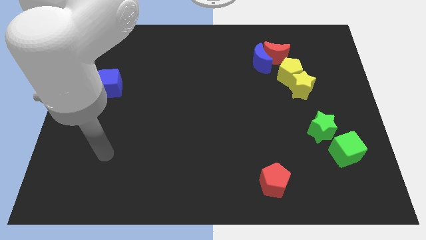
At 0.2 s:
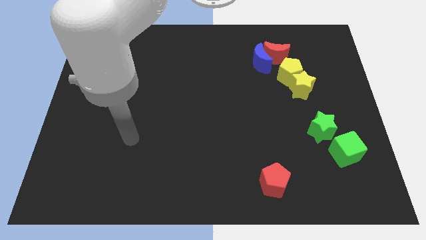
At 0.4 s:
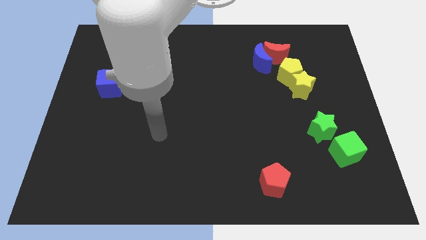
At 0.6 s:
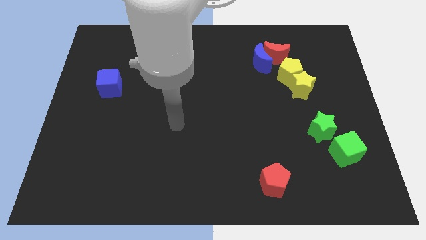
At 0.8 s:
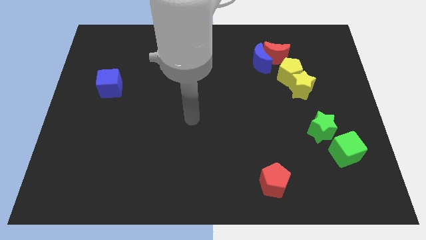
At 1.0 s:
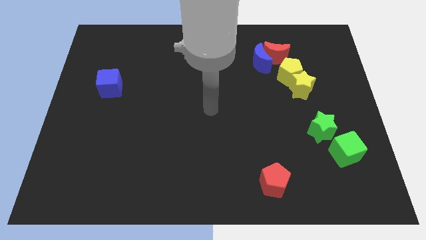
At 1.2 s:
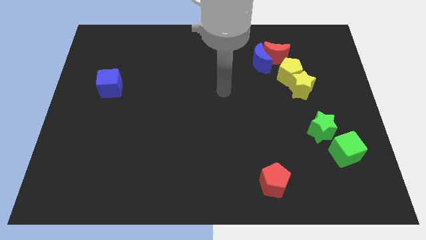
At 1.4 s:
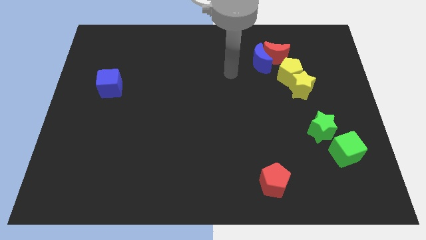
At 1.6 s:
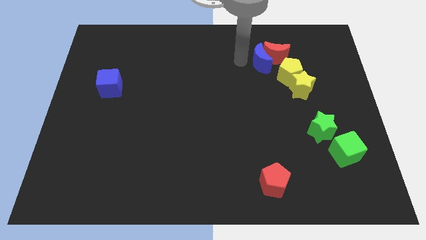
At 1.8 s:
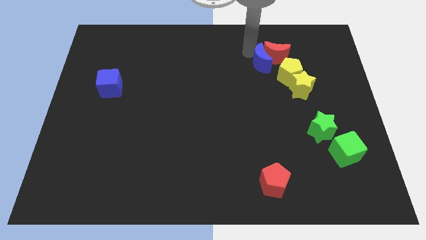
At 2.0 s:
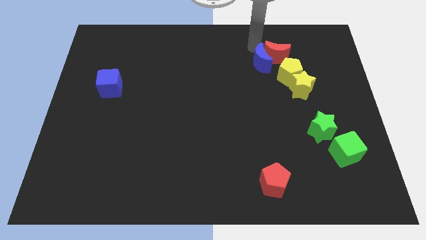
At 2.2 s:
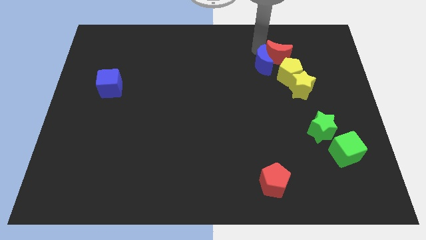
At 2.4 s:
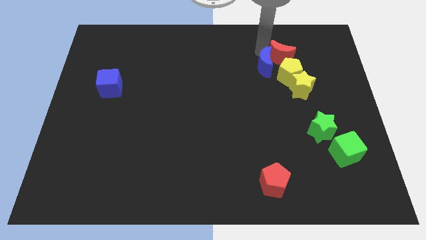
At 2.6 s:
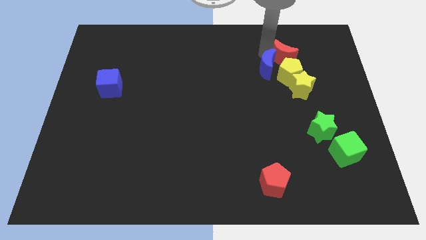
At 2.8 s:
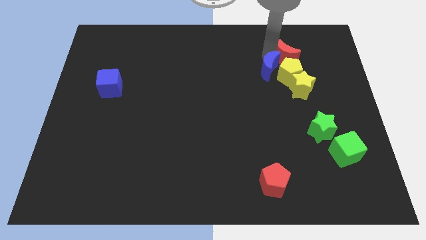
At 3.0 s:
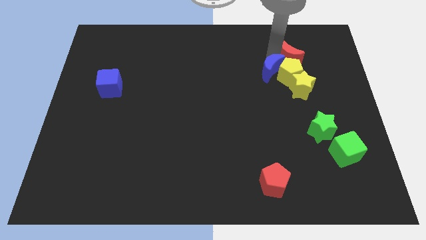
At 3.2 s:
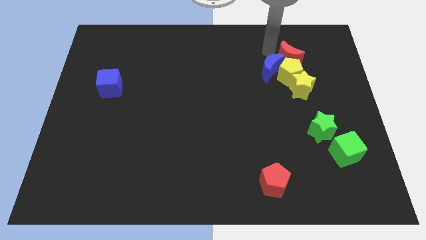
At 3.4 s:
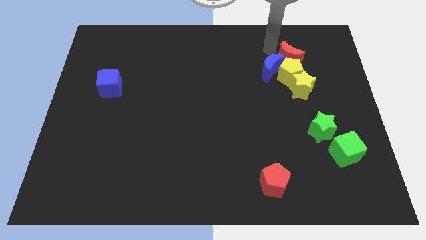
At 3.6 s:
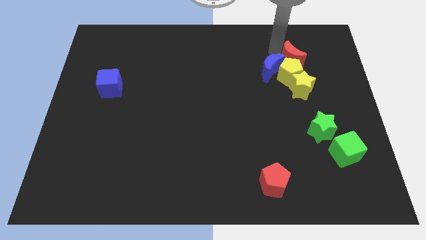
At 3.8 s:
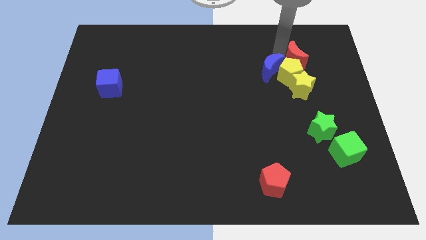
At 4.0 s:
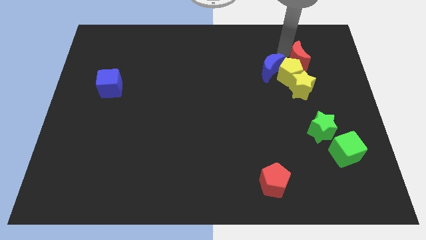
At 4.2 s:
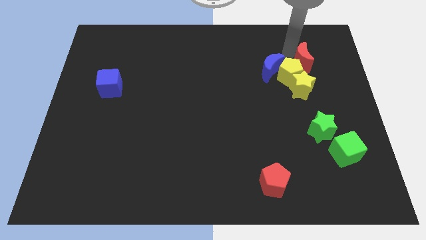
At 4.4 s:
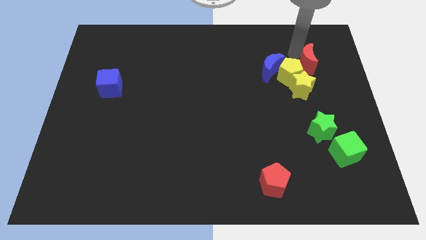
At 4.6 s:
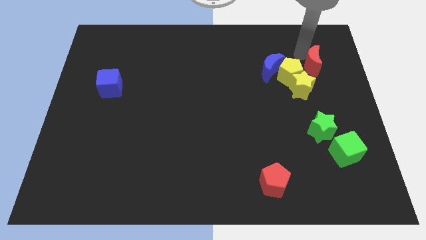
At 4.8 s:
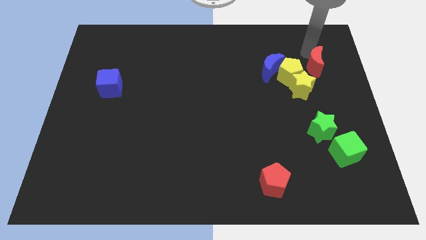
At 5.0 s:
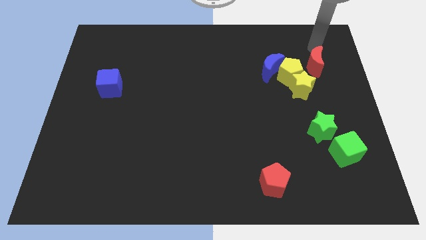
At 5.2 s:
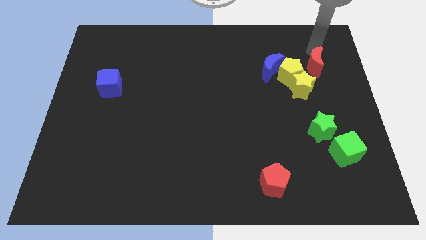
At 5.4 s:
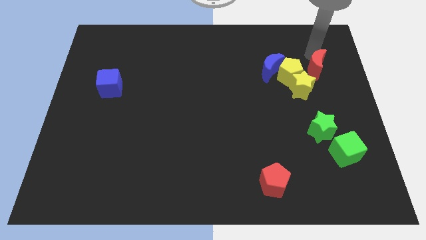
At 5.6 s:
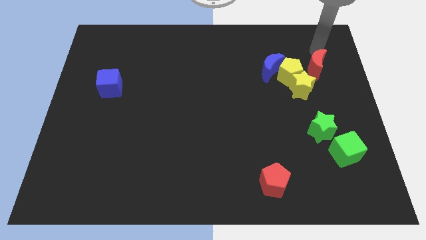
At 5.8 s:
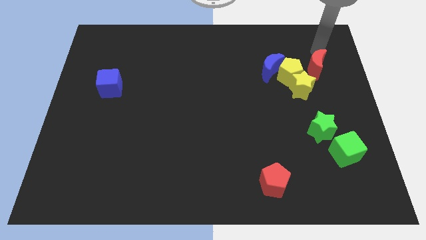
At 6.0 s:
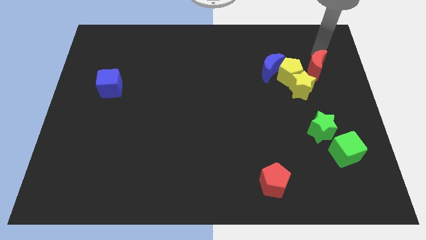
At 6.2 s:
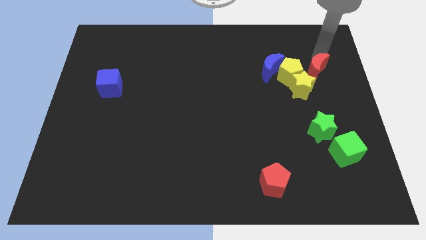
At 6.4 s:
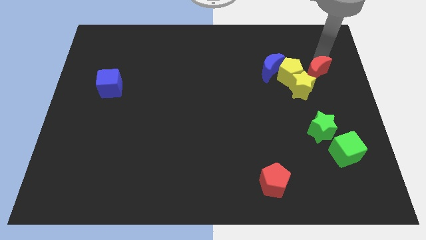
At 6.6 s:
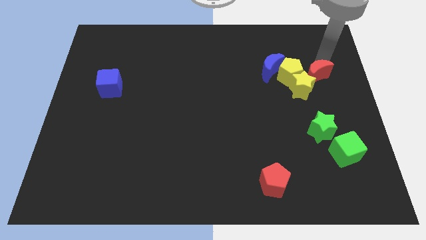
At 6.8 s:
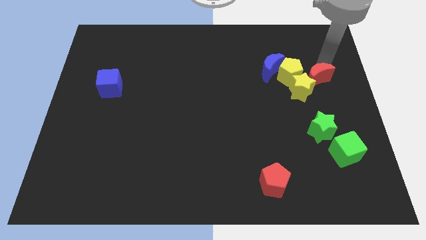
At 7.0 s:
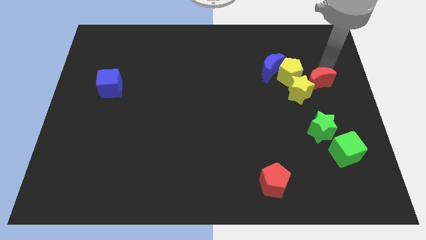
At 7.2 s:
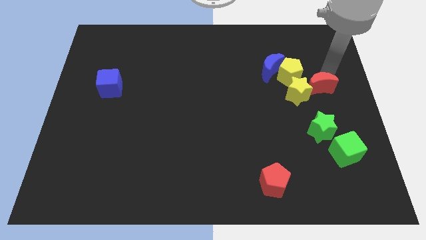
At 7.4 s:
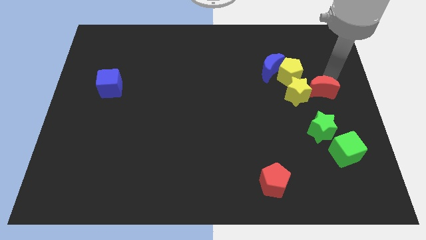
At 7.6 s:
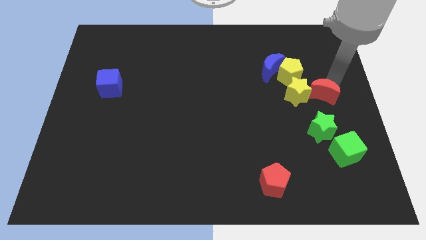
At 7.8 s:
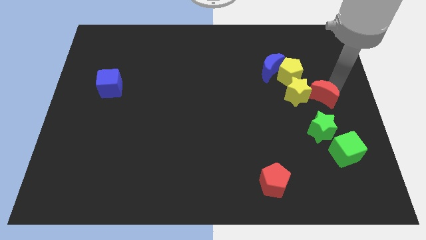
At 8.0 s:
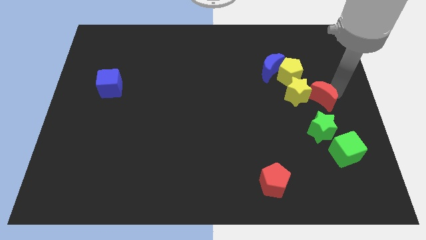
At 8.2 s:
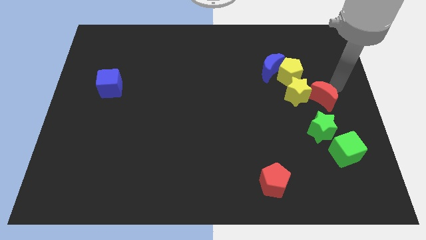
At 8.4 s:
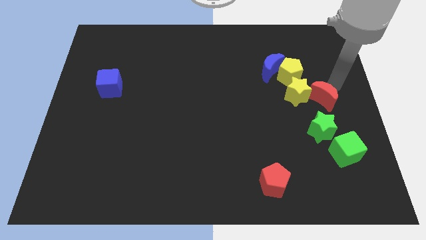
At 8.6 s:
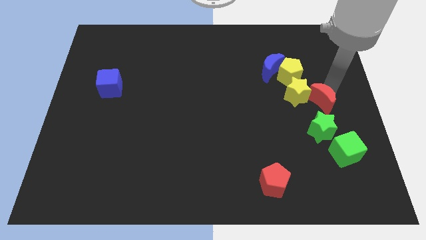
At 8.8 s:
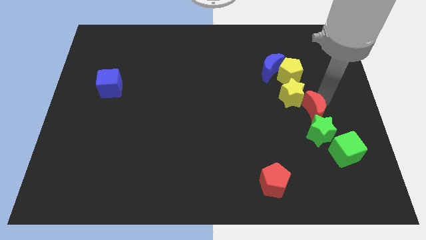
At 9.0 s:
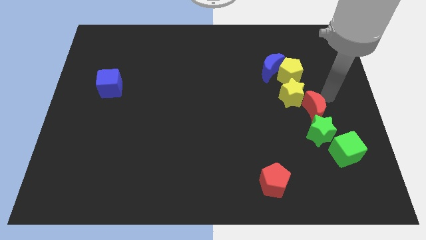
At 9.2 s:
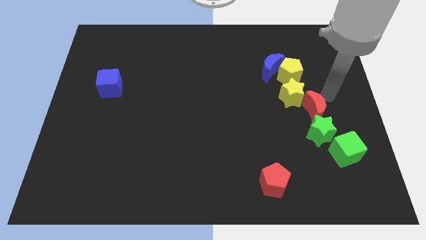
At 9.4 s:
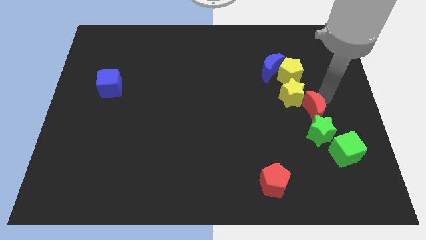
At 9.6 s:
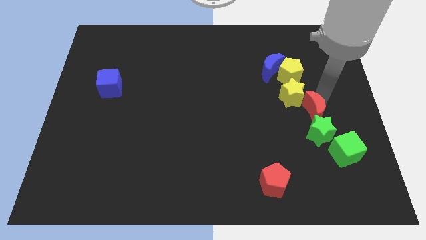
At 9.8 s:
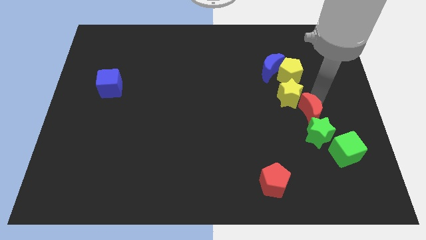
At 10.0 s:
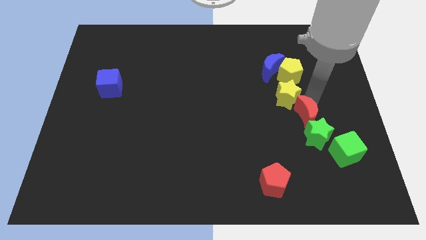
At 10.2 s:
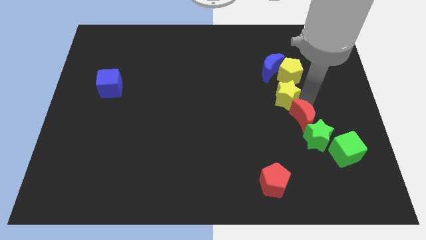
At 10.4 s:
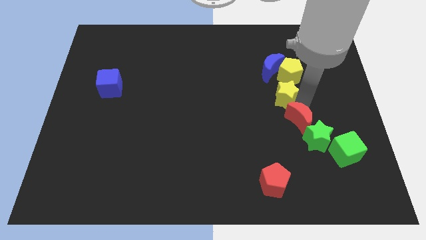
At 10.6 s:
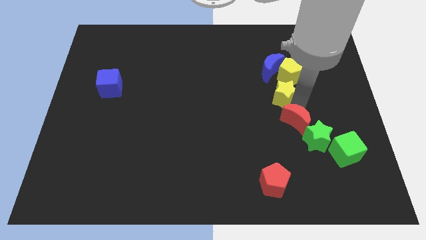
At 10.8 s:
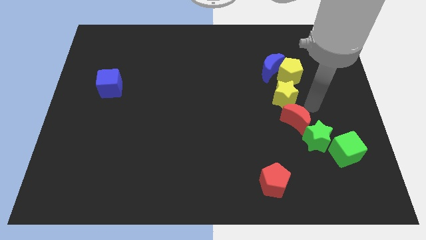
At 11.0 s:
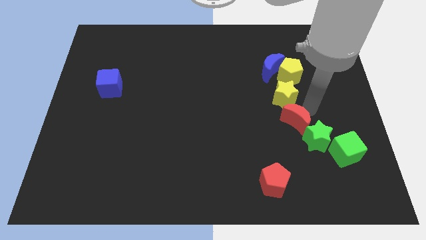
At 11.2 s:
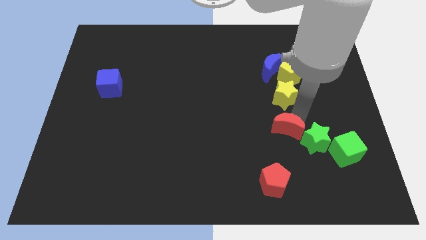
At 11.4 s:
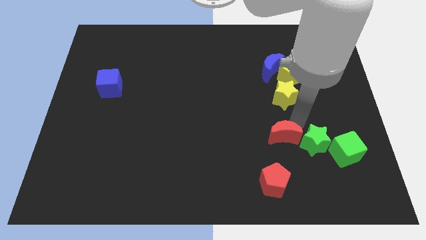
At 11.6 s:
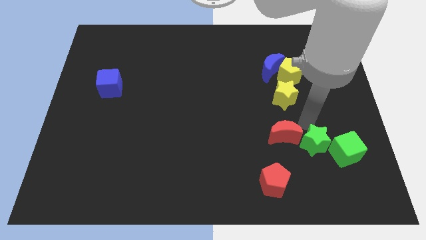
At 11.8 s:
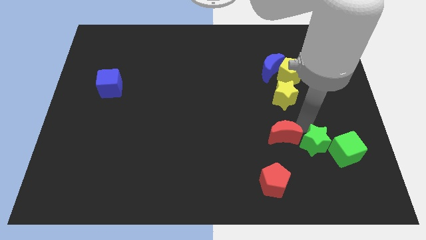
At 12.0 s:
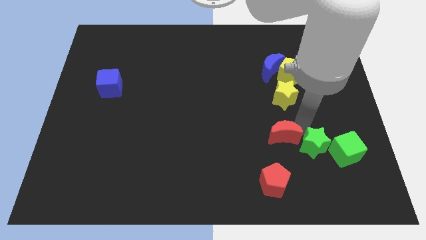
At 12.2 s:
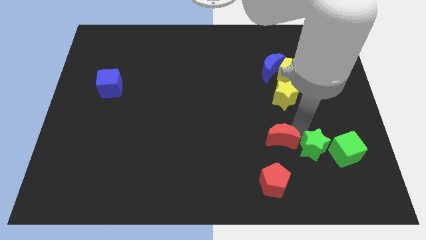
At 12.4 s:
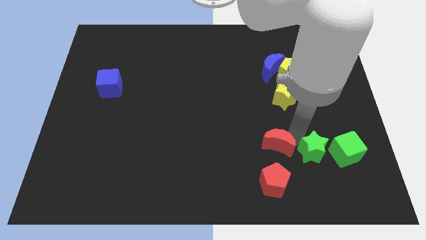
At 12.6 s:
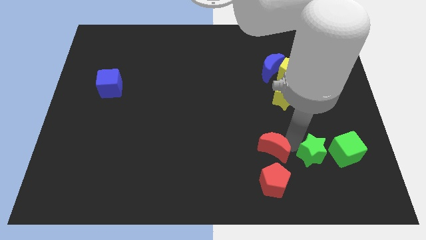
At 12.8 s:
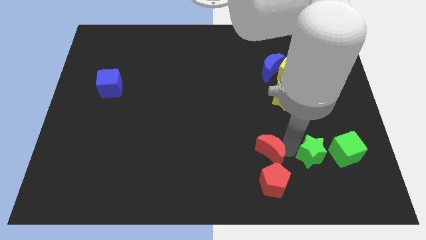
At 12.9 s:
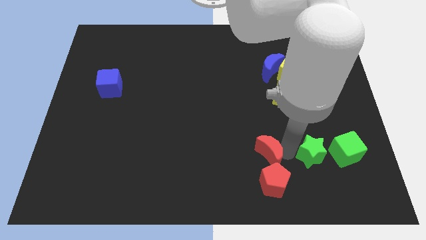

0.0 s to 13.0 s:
slide the red moon to the top left of the red pentagon
